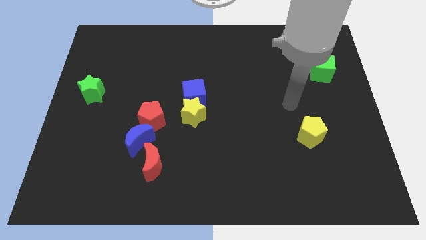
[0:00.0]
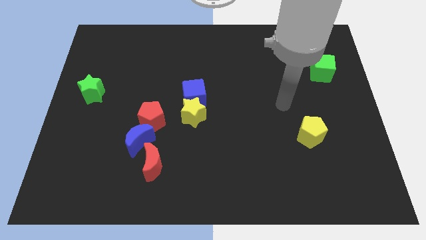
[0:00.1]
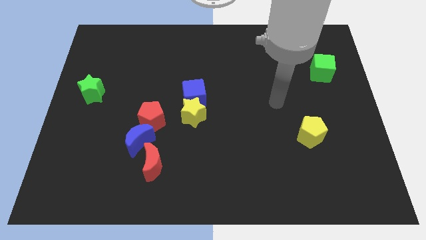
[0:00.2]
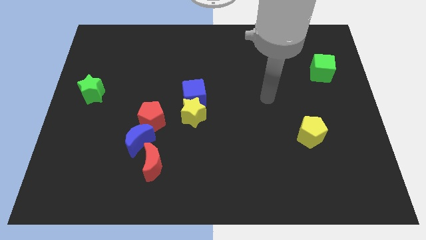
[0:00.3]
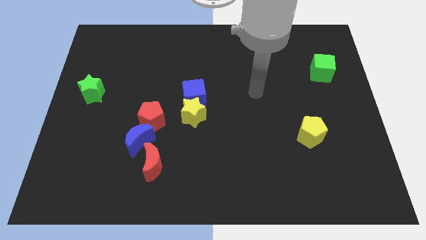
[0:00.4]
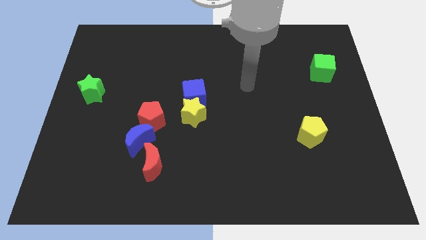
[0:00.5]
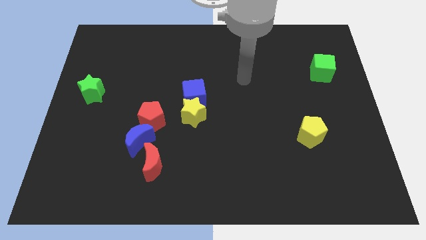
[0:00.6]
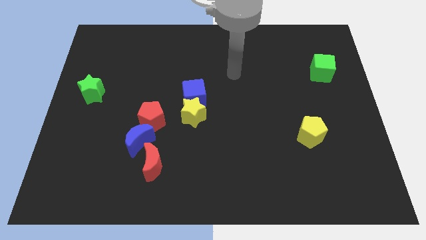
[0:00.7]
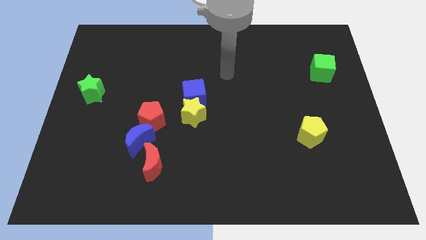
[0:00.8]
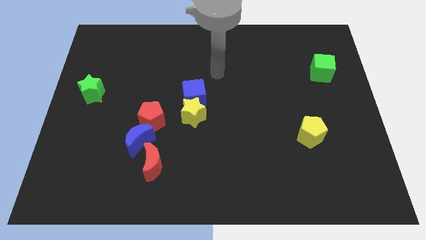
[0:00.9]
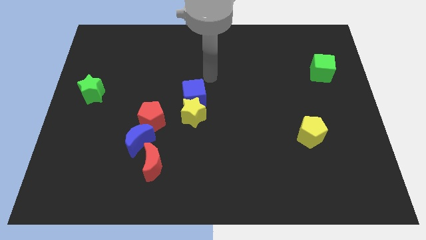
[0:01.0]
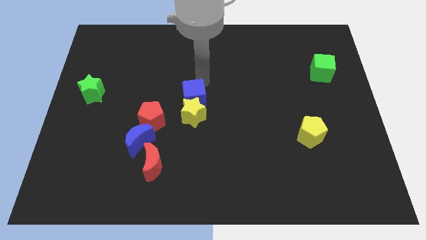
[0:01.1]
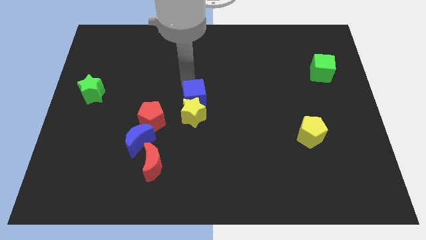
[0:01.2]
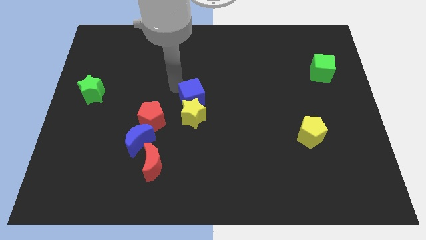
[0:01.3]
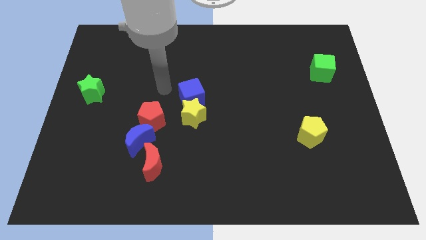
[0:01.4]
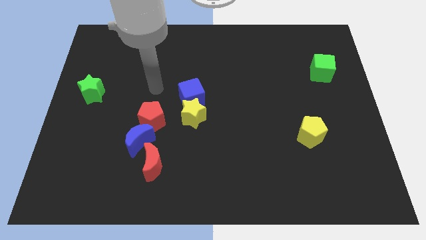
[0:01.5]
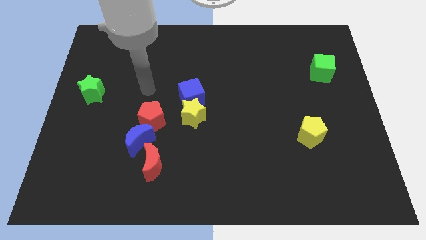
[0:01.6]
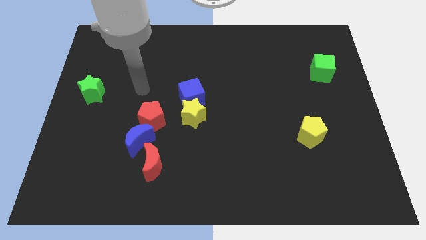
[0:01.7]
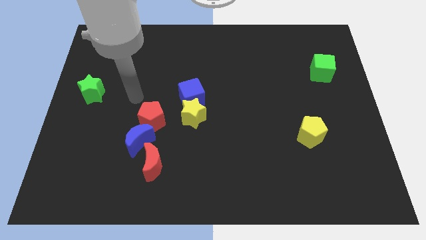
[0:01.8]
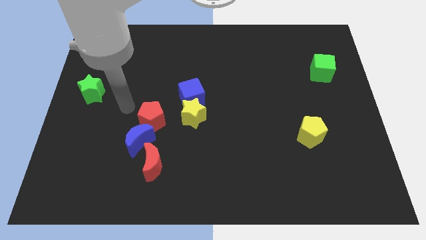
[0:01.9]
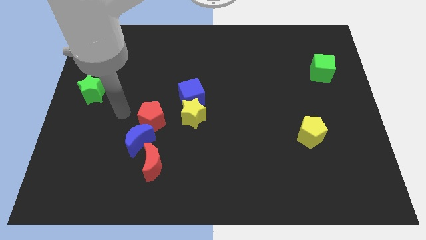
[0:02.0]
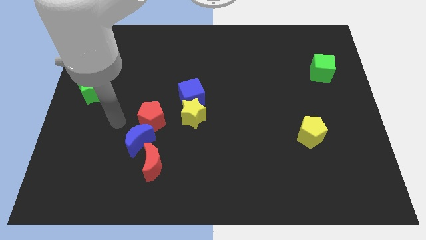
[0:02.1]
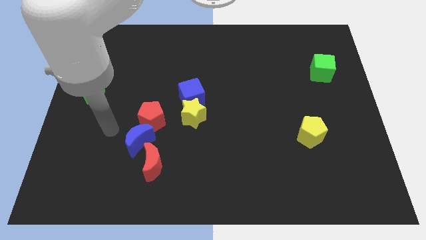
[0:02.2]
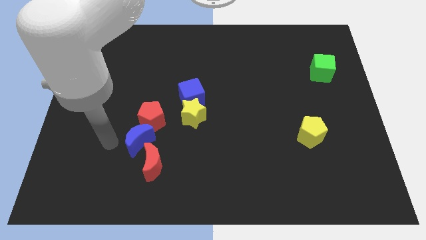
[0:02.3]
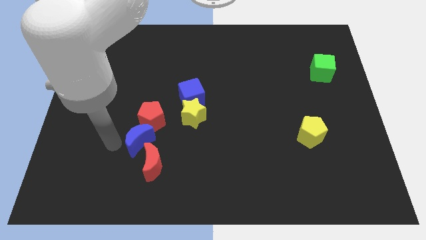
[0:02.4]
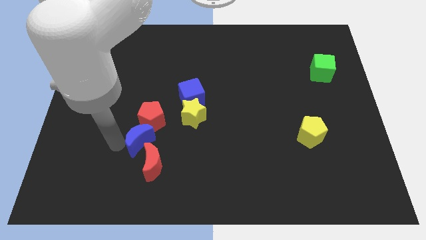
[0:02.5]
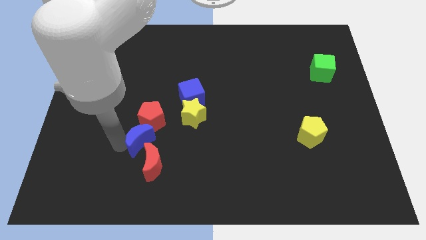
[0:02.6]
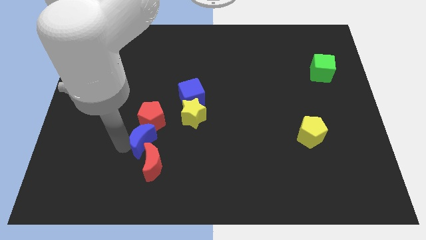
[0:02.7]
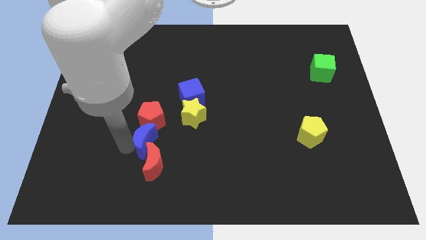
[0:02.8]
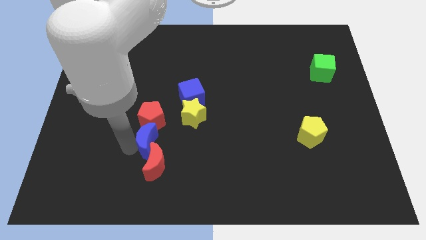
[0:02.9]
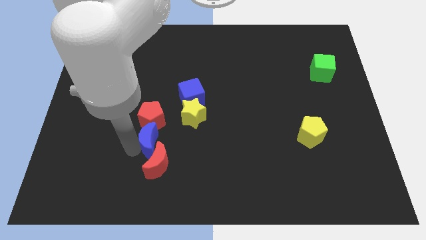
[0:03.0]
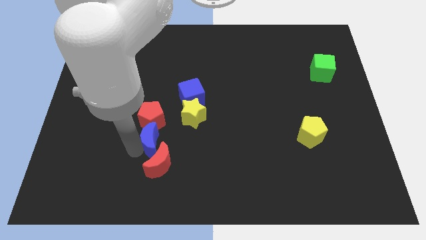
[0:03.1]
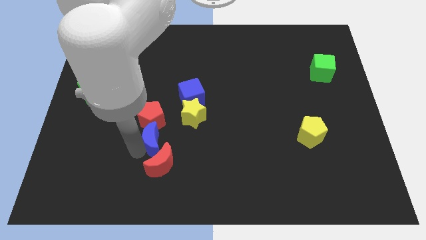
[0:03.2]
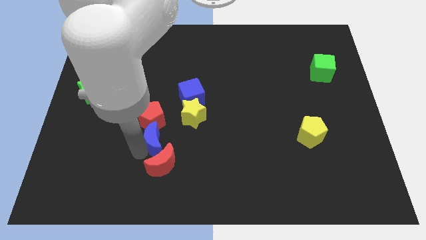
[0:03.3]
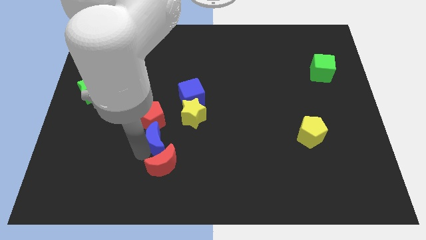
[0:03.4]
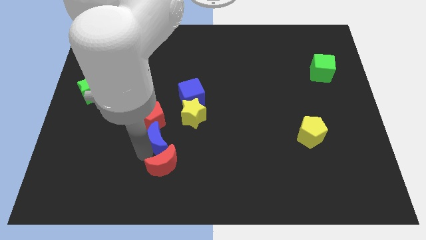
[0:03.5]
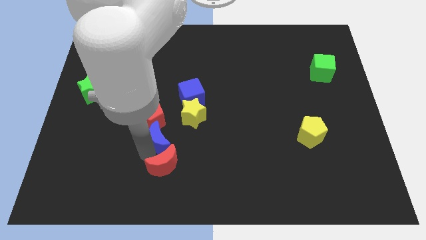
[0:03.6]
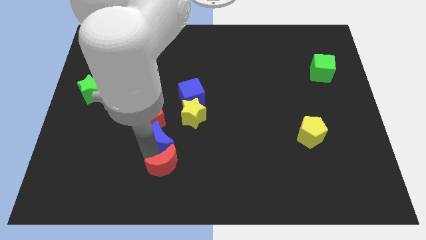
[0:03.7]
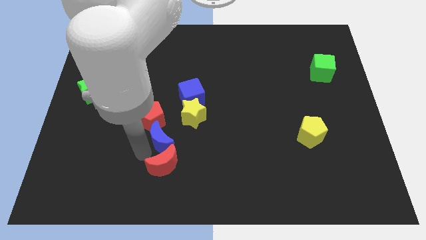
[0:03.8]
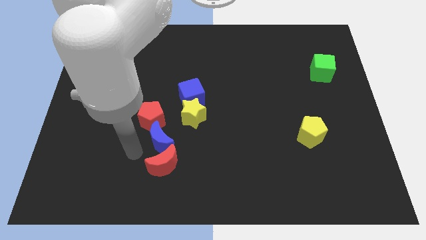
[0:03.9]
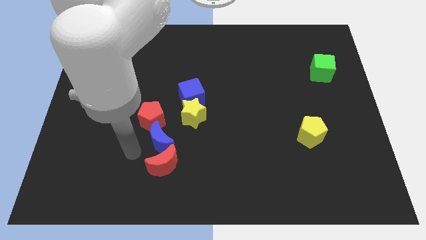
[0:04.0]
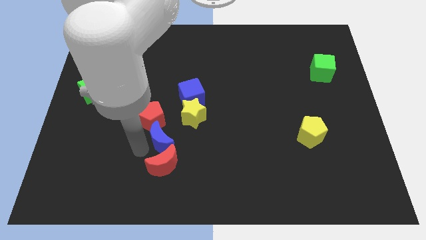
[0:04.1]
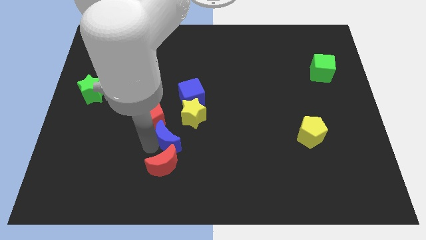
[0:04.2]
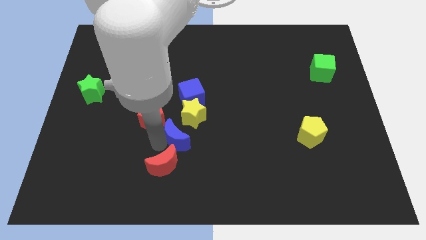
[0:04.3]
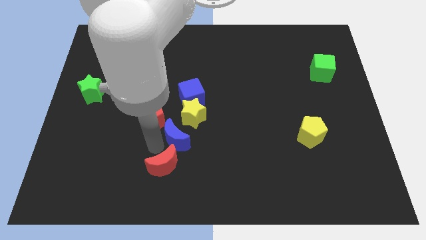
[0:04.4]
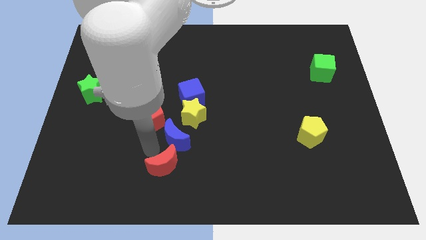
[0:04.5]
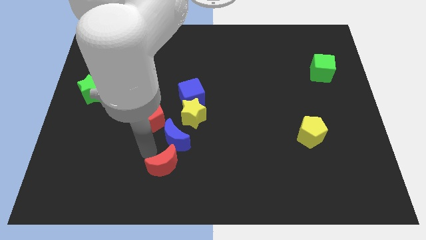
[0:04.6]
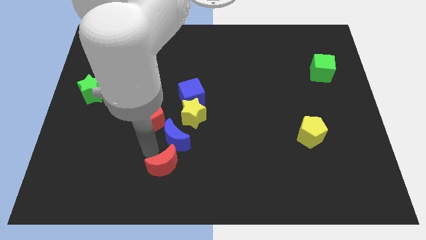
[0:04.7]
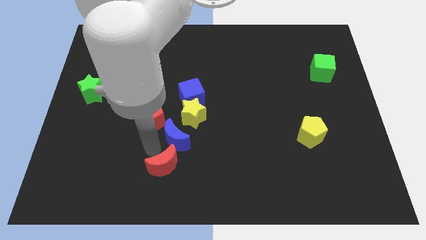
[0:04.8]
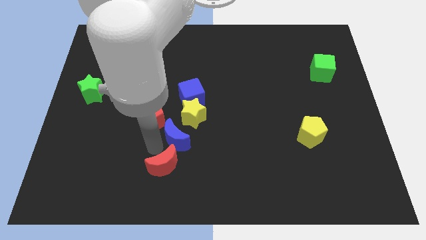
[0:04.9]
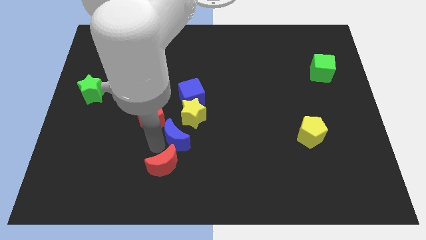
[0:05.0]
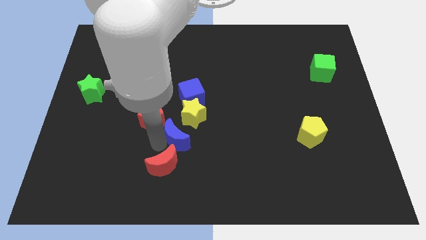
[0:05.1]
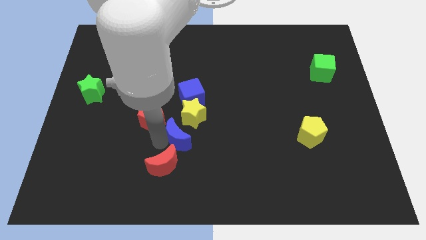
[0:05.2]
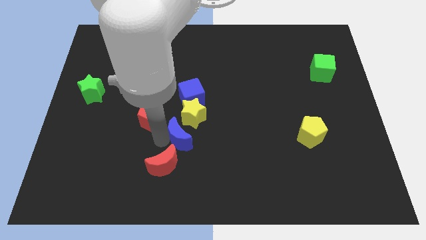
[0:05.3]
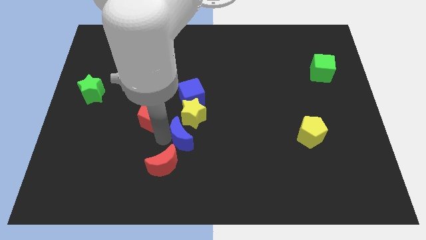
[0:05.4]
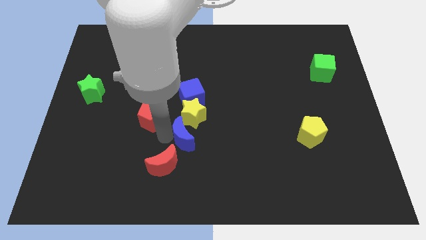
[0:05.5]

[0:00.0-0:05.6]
slide the blue moon to the middle of the board
